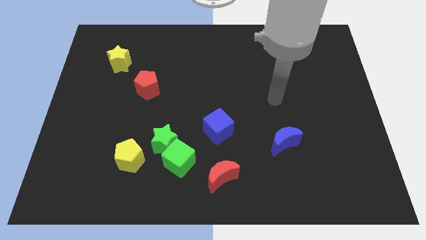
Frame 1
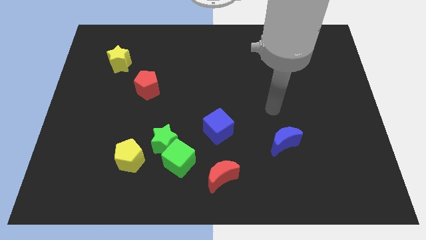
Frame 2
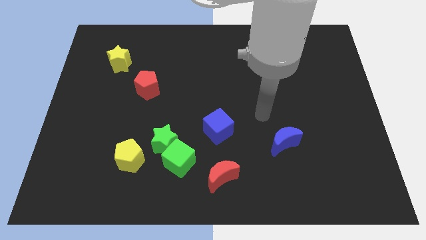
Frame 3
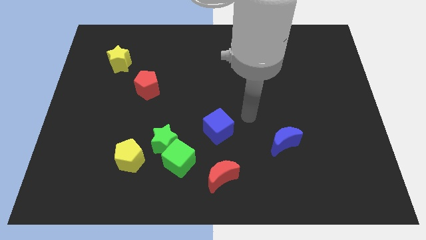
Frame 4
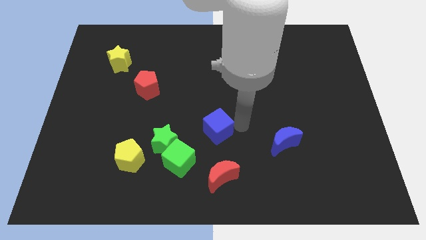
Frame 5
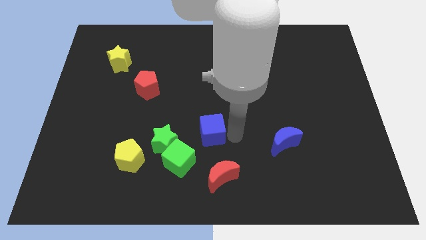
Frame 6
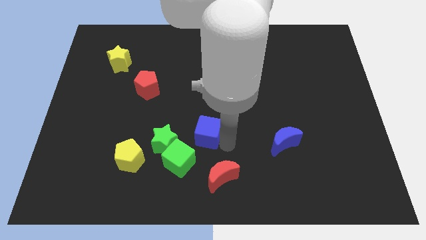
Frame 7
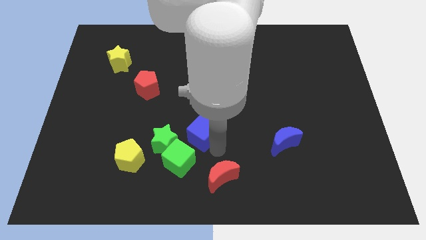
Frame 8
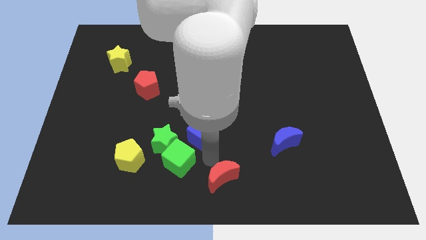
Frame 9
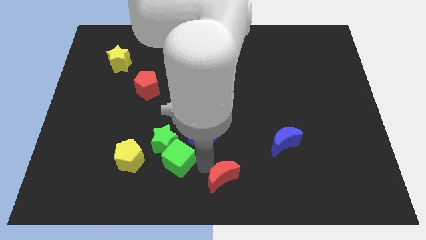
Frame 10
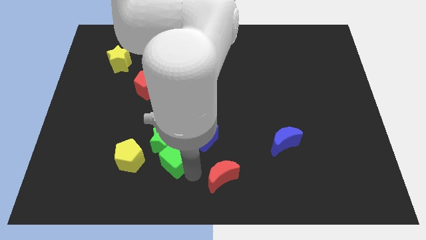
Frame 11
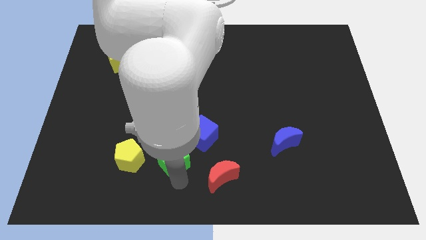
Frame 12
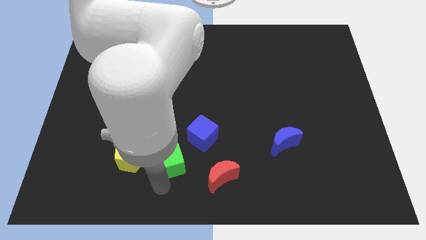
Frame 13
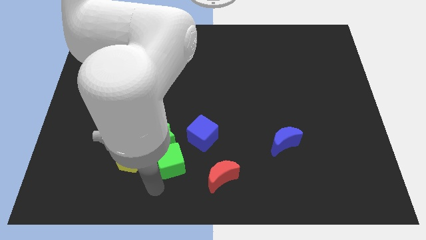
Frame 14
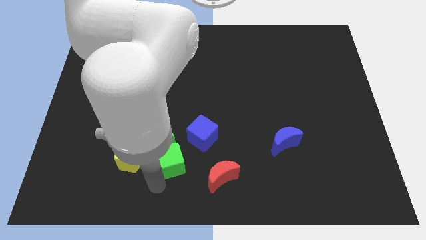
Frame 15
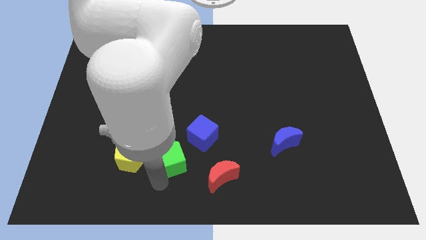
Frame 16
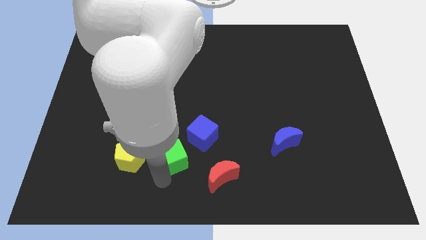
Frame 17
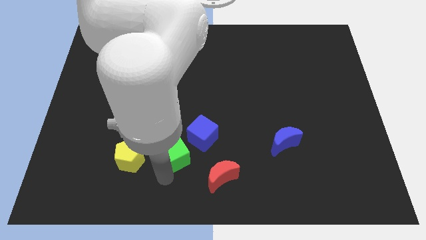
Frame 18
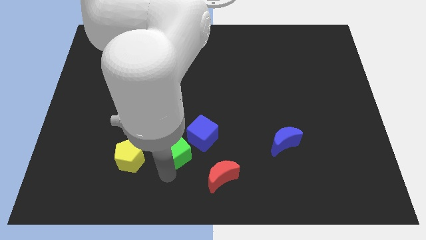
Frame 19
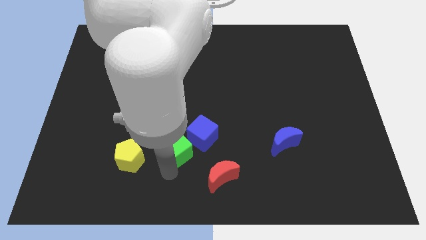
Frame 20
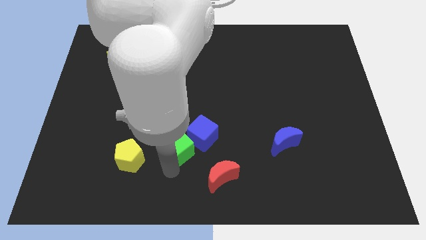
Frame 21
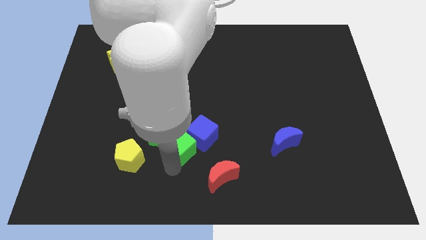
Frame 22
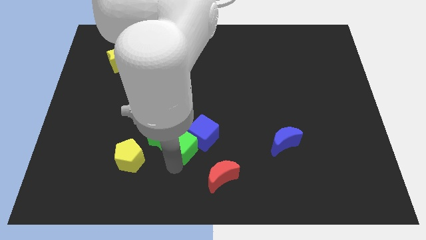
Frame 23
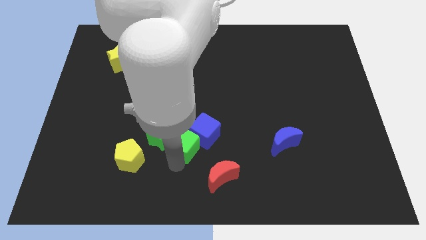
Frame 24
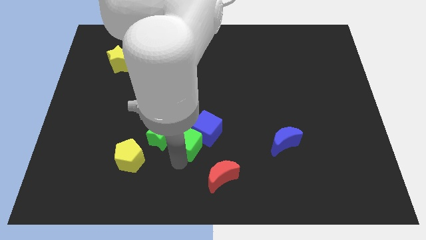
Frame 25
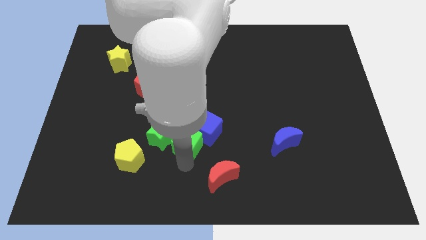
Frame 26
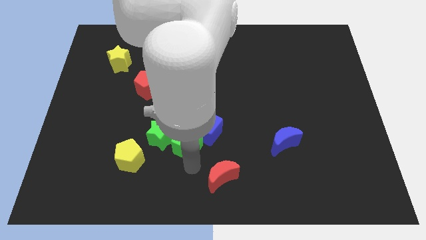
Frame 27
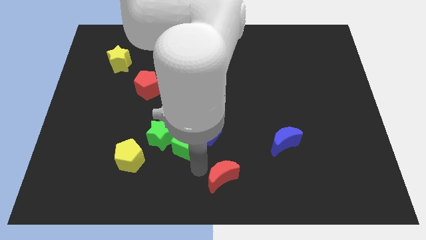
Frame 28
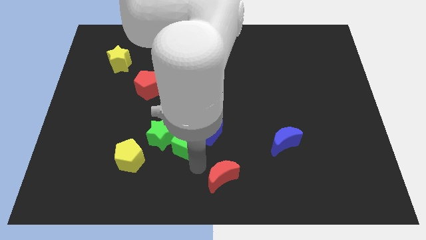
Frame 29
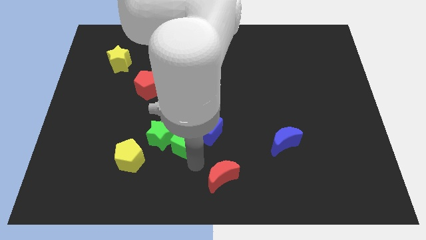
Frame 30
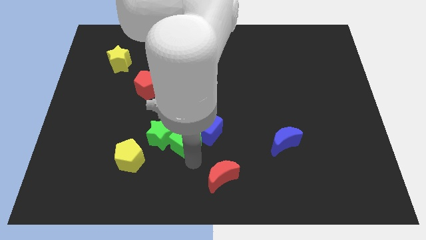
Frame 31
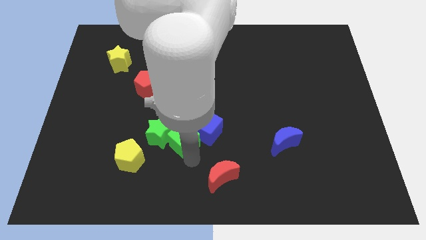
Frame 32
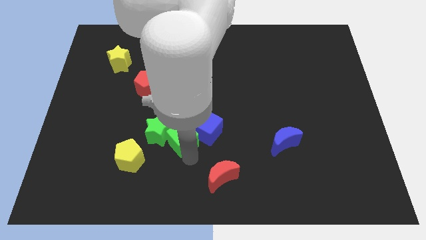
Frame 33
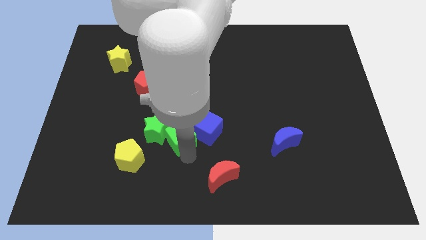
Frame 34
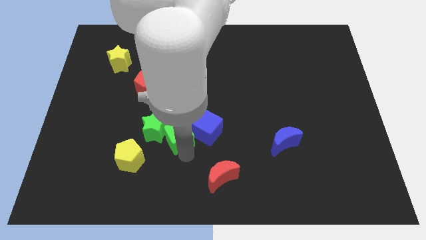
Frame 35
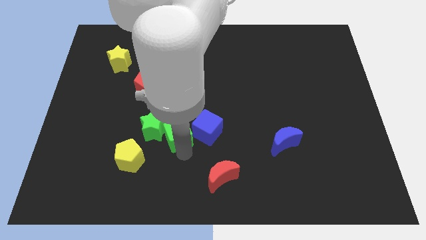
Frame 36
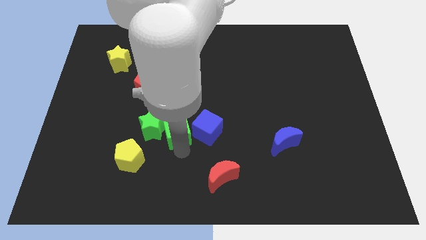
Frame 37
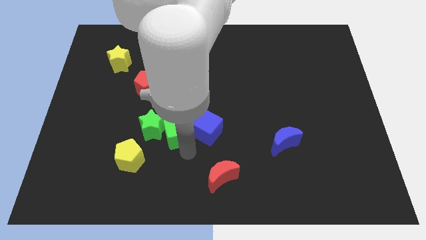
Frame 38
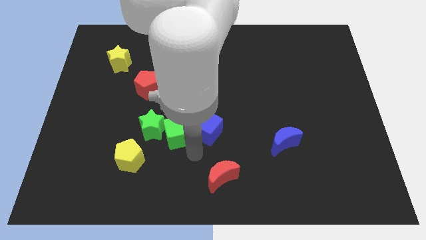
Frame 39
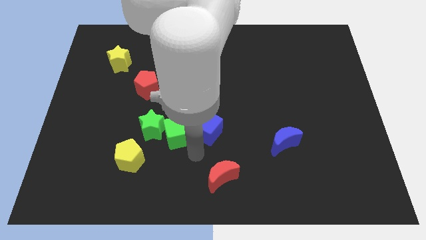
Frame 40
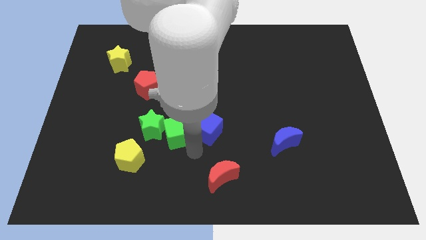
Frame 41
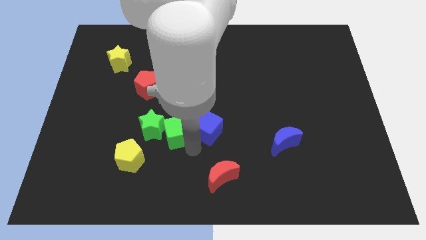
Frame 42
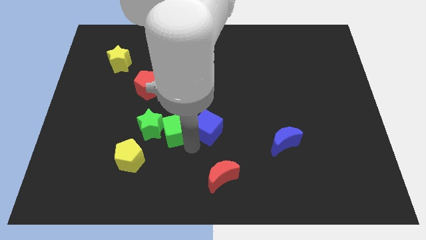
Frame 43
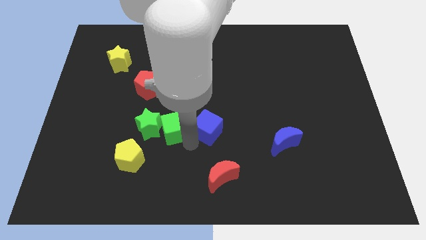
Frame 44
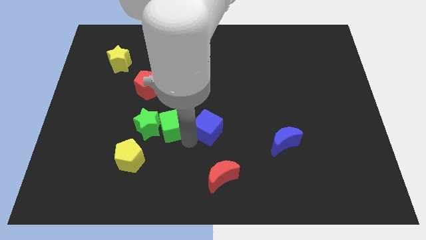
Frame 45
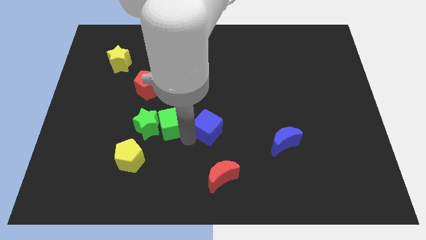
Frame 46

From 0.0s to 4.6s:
move the green cube up and left diagonally slightly

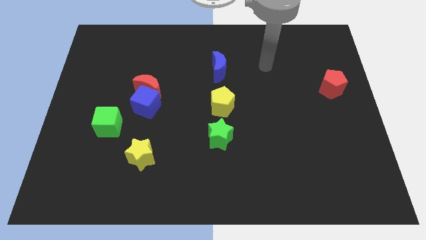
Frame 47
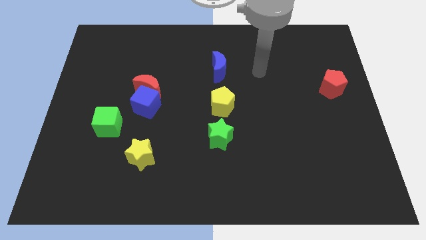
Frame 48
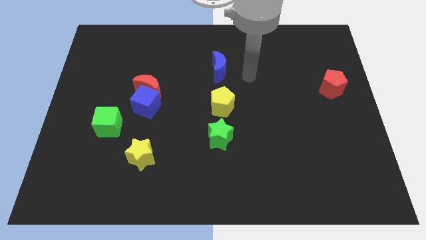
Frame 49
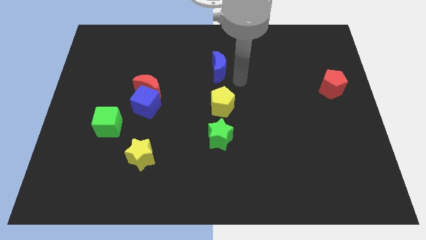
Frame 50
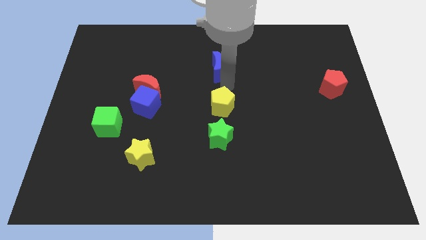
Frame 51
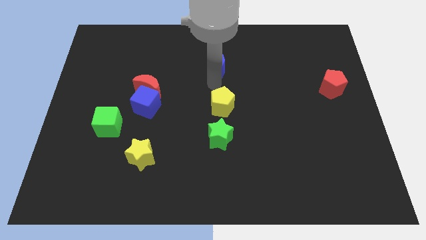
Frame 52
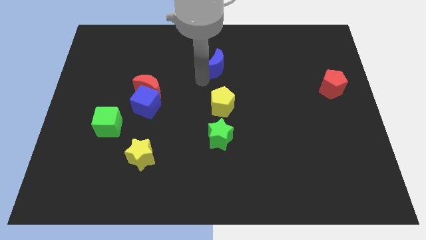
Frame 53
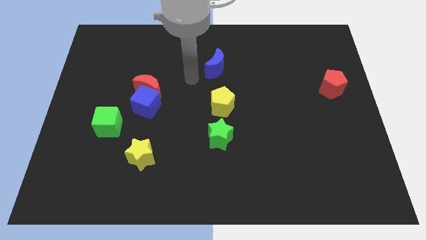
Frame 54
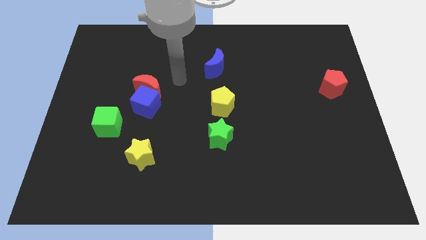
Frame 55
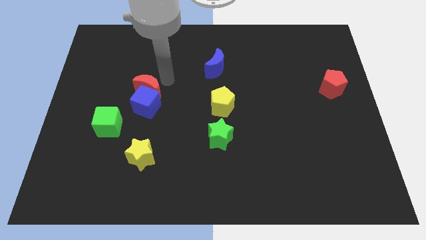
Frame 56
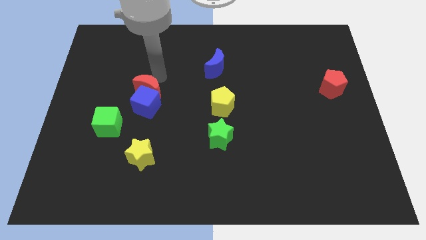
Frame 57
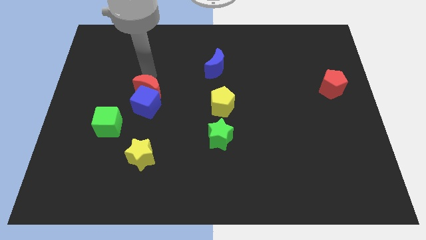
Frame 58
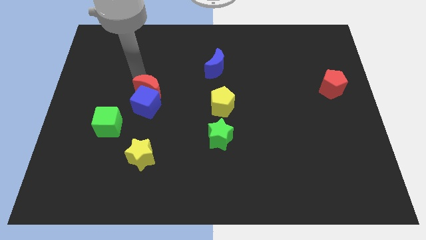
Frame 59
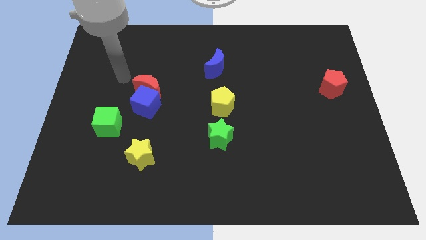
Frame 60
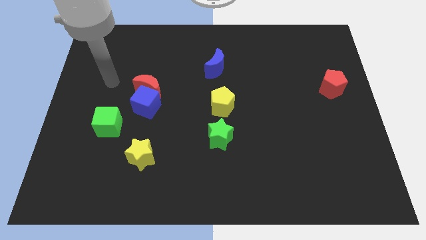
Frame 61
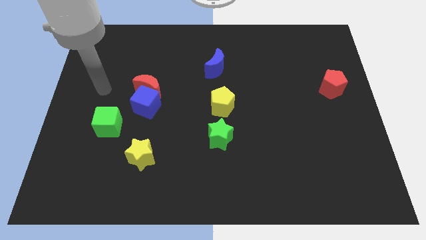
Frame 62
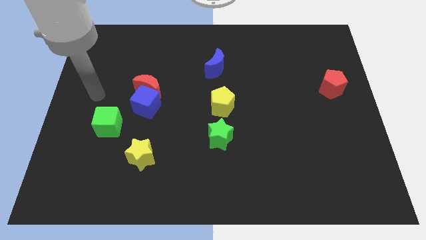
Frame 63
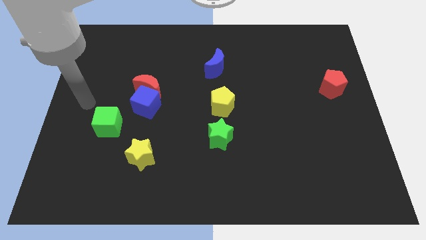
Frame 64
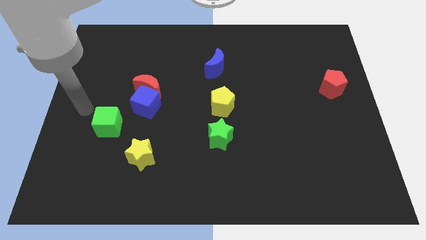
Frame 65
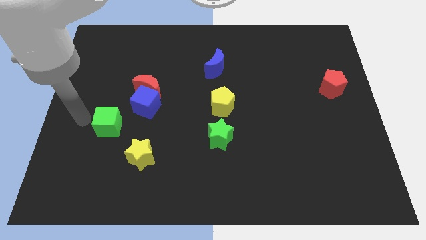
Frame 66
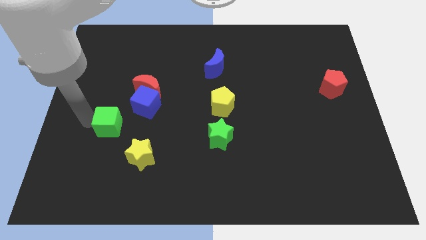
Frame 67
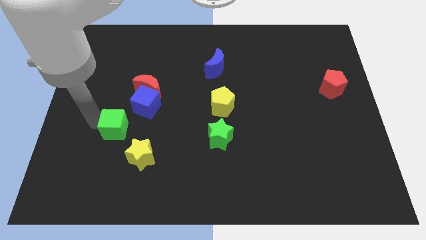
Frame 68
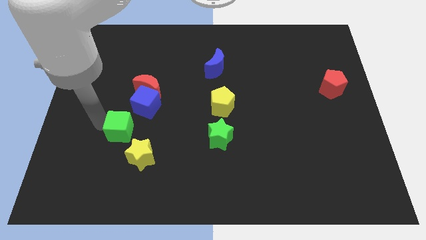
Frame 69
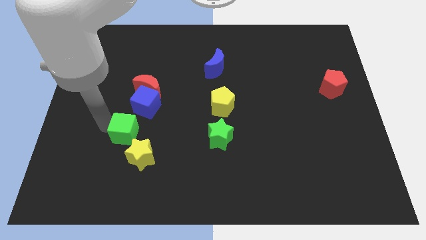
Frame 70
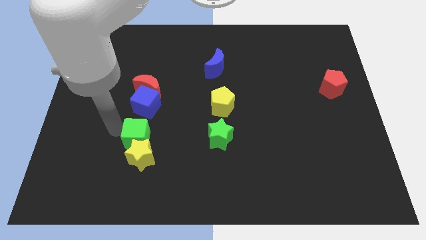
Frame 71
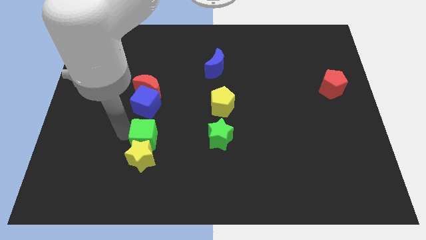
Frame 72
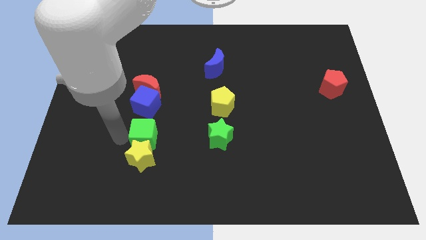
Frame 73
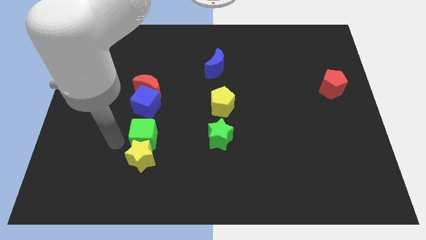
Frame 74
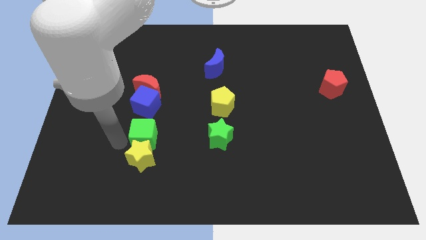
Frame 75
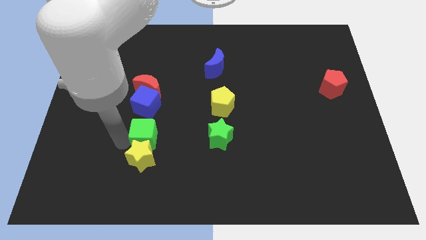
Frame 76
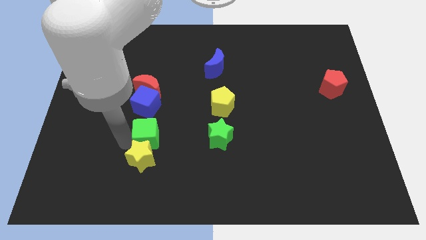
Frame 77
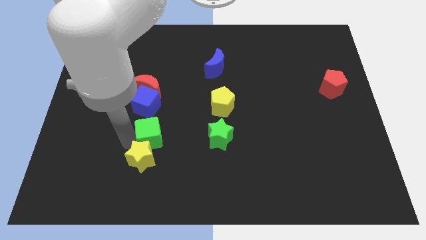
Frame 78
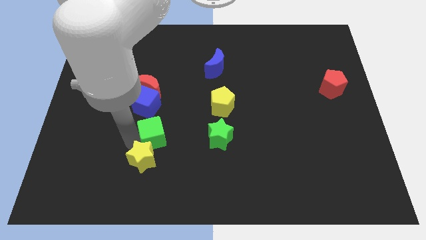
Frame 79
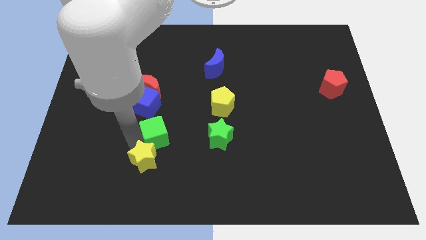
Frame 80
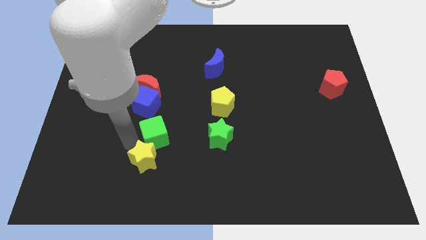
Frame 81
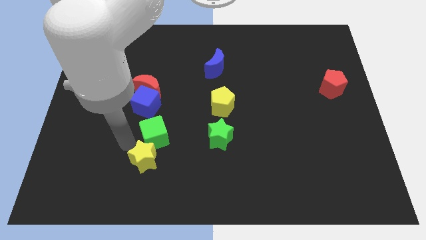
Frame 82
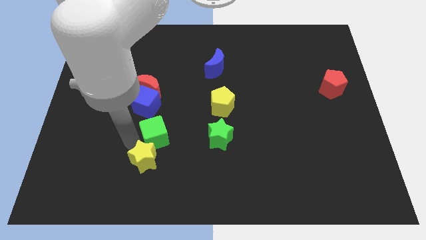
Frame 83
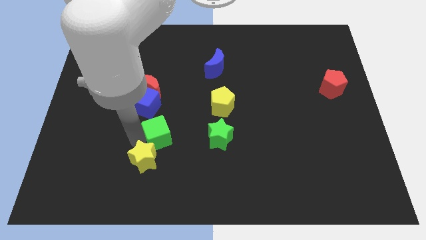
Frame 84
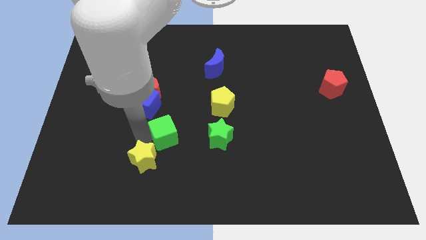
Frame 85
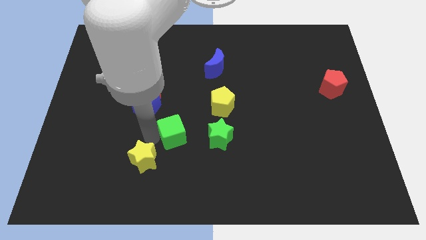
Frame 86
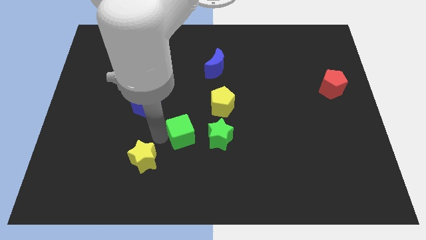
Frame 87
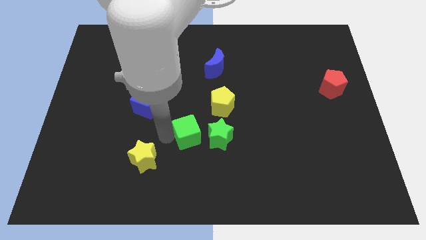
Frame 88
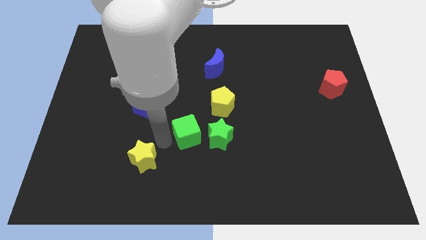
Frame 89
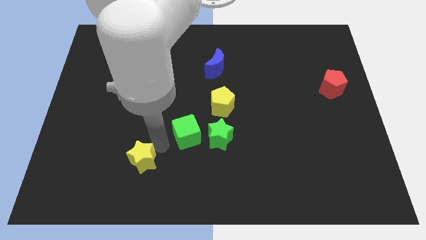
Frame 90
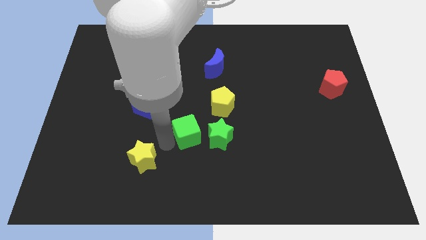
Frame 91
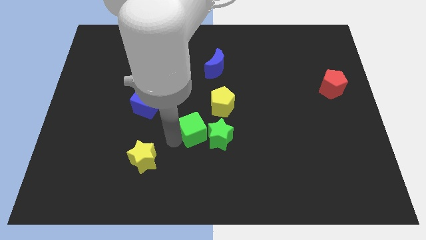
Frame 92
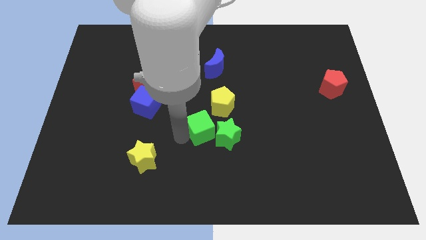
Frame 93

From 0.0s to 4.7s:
slide the green cube right
